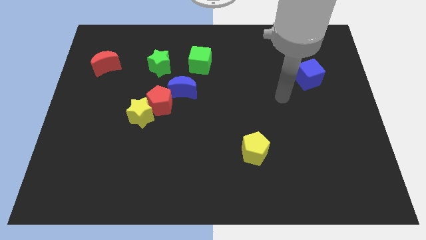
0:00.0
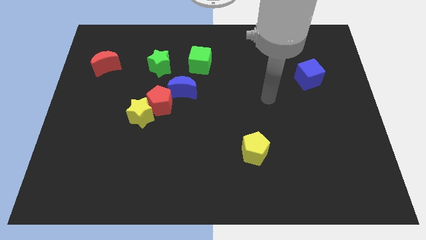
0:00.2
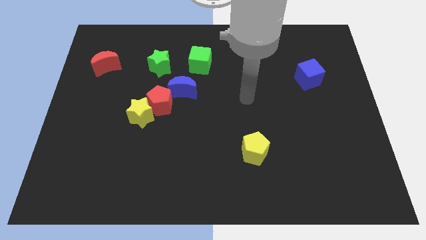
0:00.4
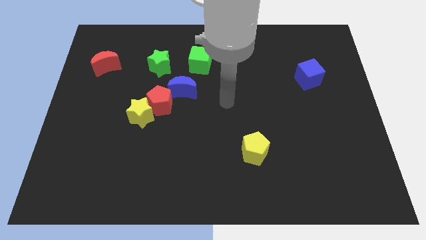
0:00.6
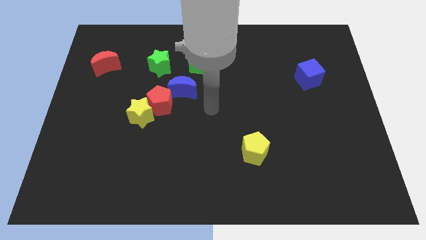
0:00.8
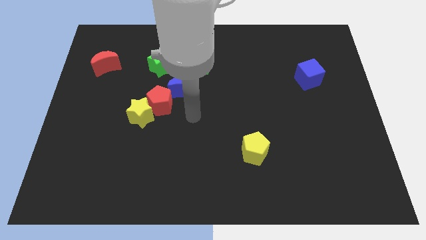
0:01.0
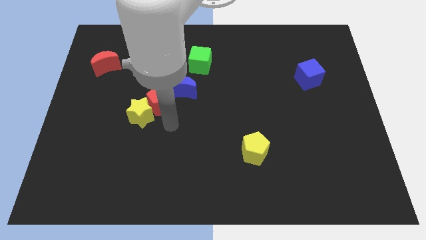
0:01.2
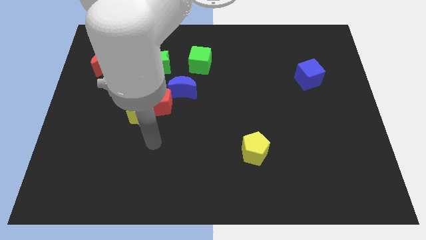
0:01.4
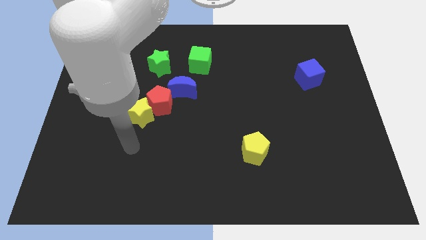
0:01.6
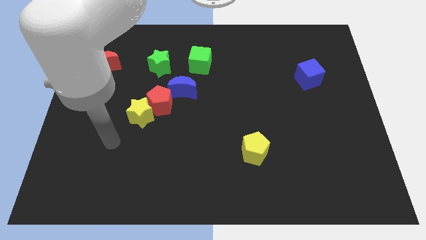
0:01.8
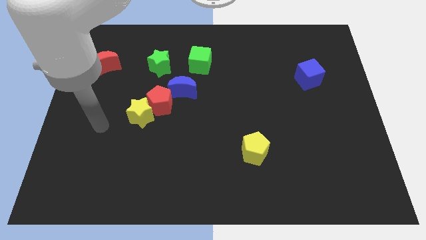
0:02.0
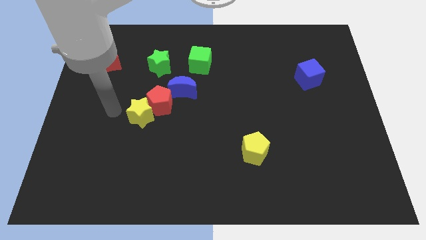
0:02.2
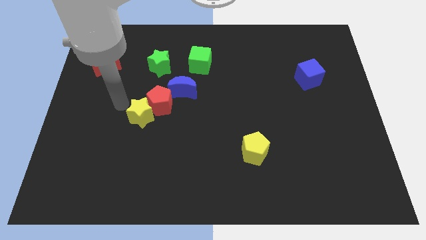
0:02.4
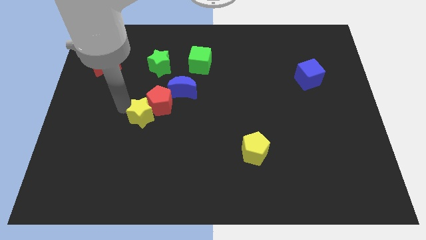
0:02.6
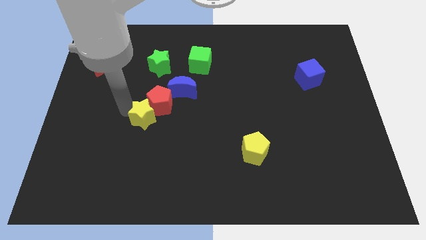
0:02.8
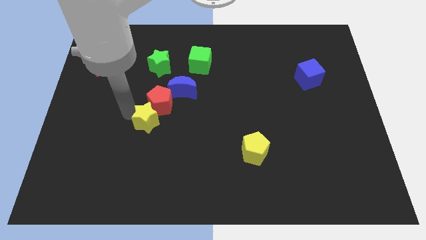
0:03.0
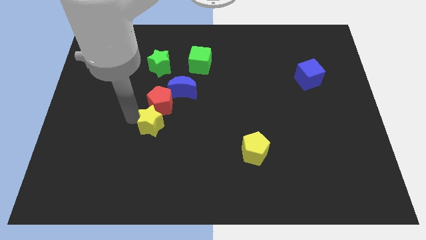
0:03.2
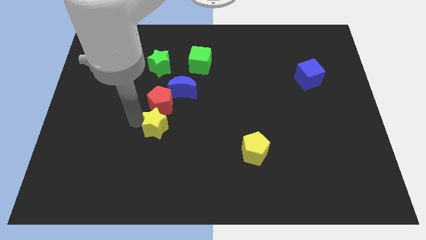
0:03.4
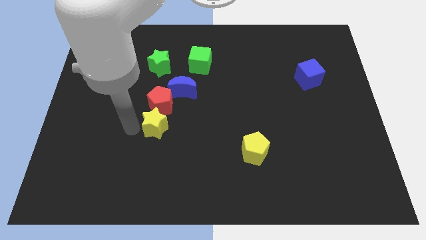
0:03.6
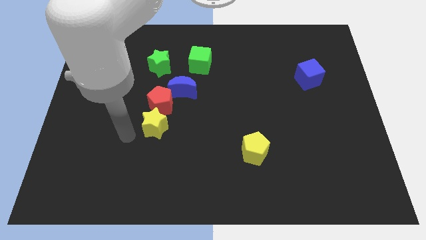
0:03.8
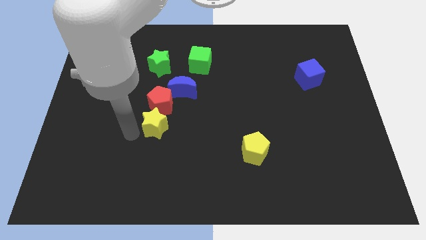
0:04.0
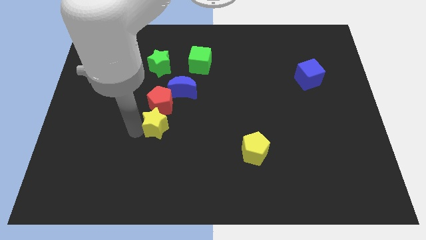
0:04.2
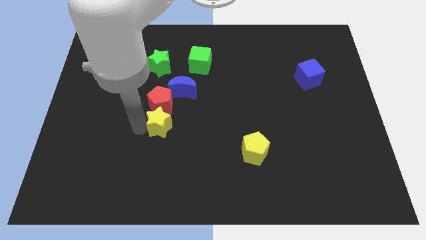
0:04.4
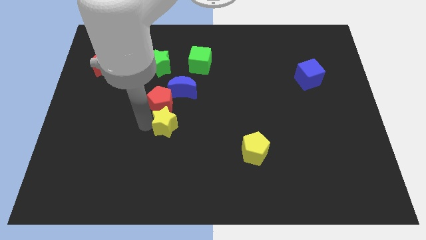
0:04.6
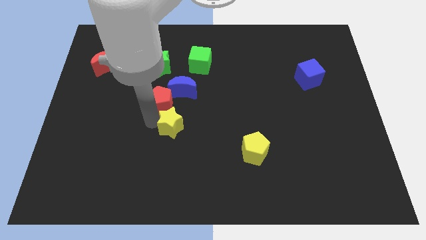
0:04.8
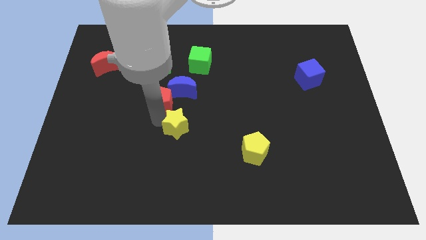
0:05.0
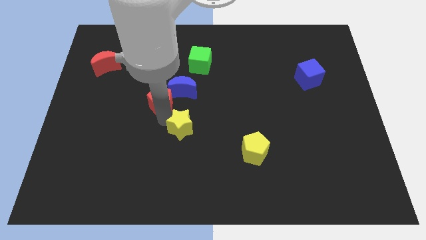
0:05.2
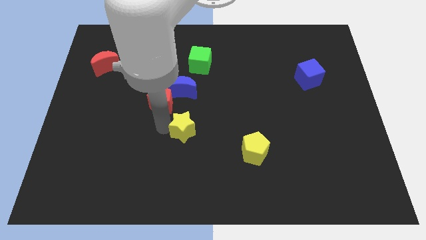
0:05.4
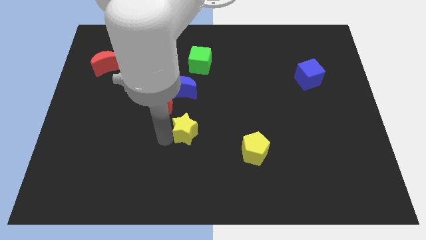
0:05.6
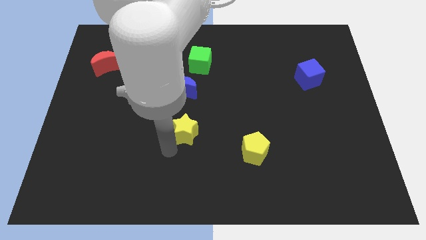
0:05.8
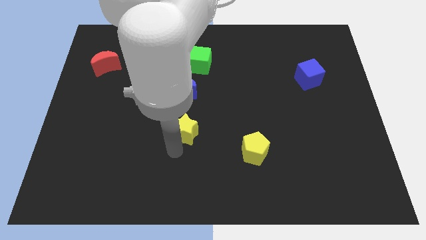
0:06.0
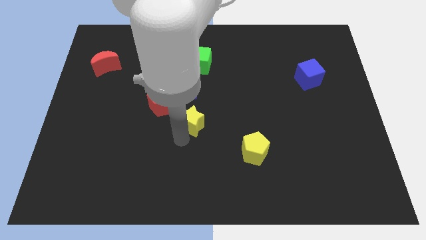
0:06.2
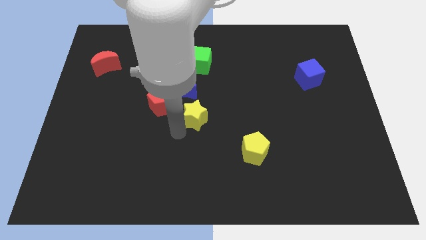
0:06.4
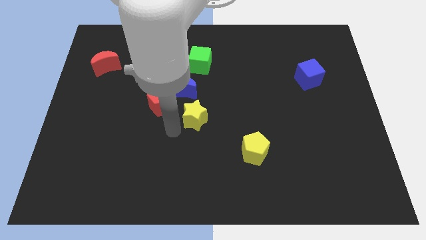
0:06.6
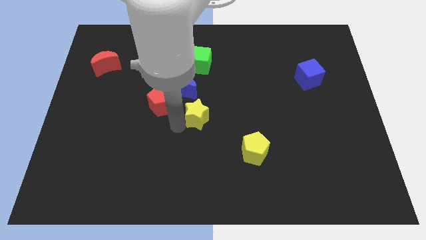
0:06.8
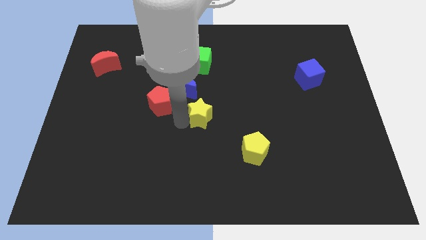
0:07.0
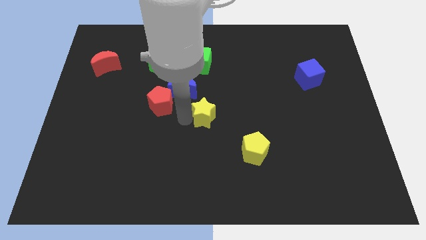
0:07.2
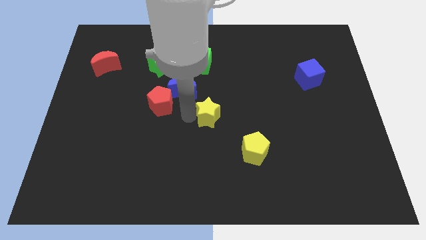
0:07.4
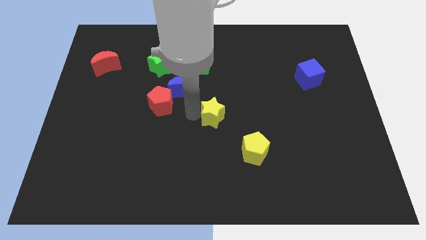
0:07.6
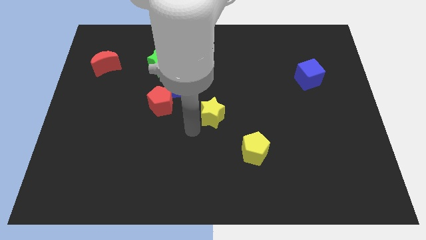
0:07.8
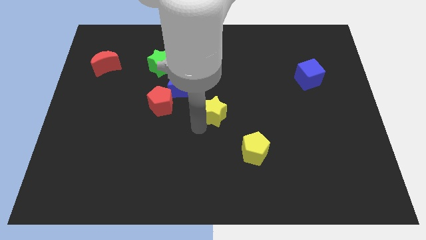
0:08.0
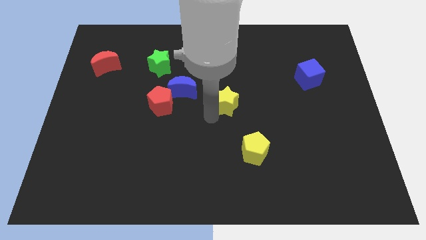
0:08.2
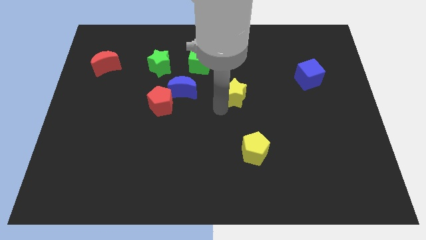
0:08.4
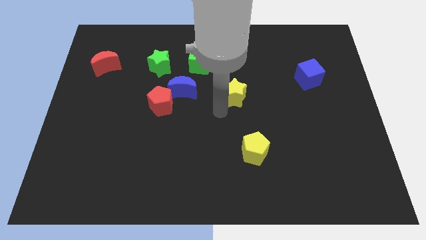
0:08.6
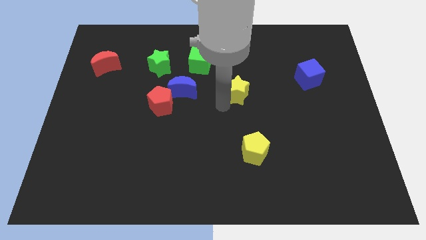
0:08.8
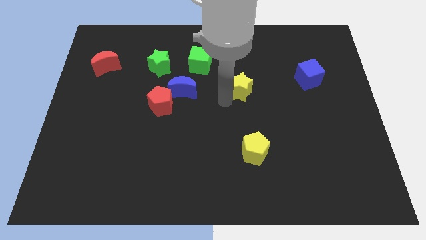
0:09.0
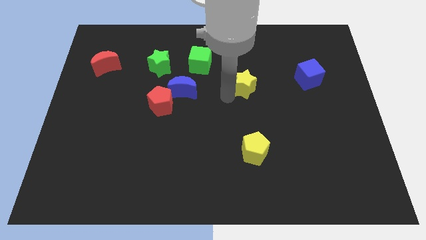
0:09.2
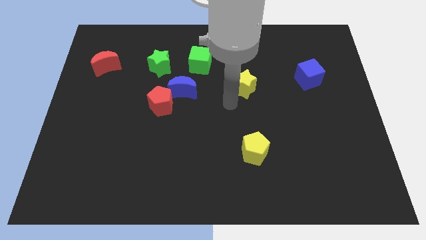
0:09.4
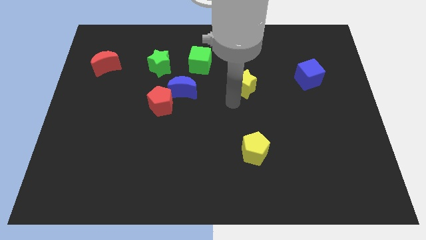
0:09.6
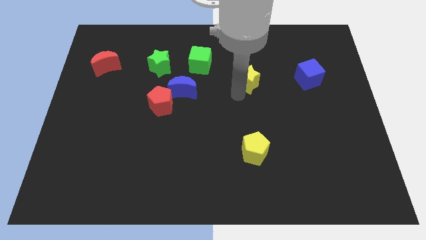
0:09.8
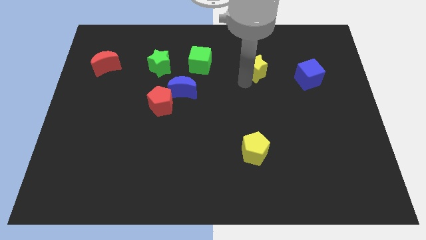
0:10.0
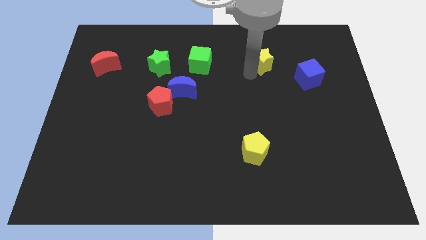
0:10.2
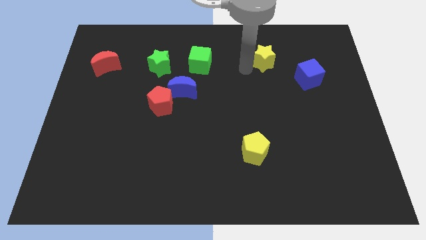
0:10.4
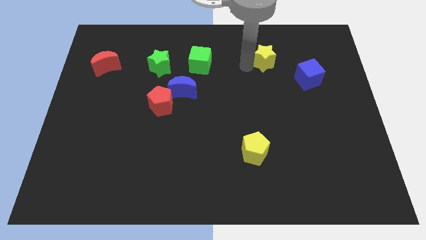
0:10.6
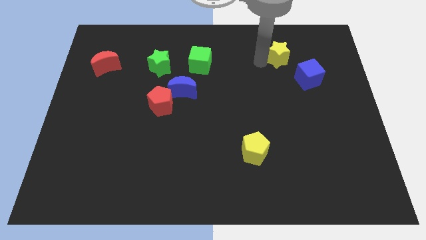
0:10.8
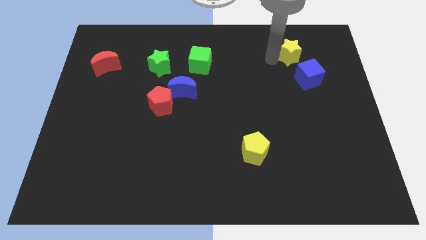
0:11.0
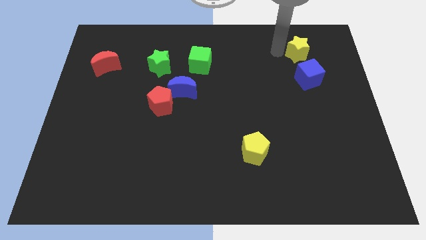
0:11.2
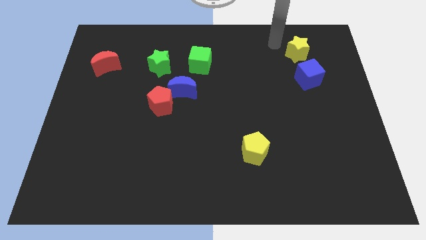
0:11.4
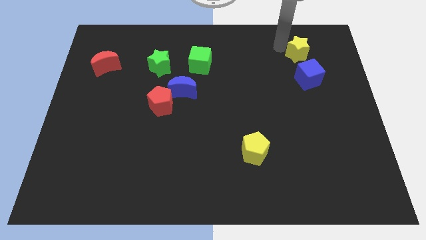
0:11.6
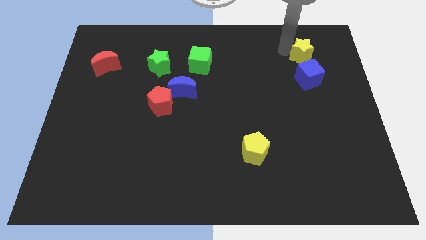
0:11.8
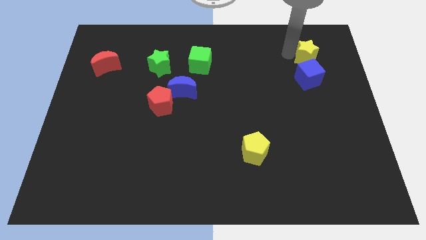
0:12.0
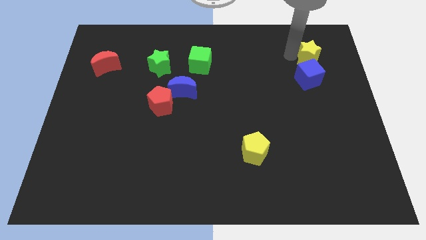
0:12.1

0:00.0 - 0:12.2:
slide the yellow star diagonally up and to the right of the blue cube

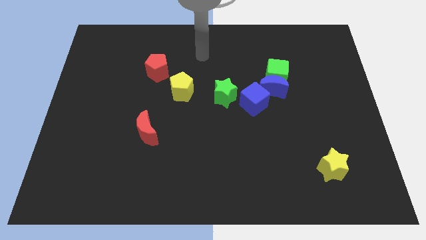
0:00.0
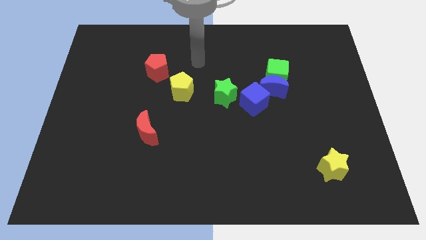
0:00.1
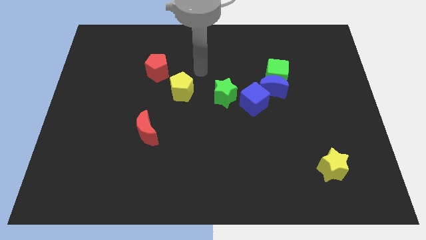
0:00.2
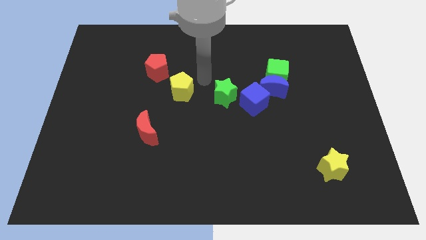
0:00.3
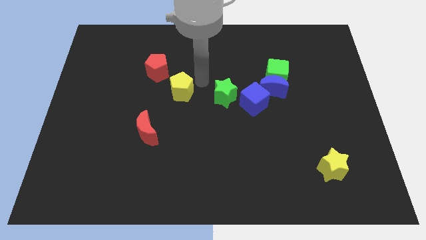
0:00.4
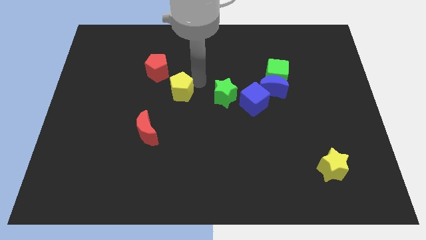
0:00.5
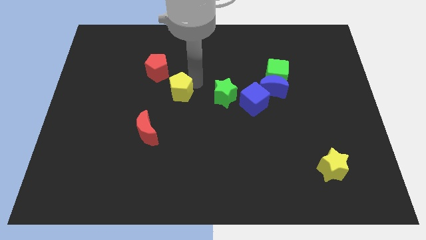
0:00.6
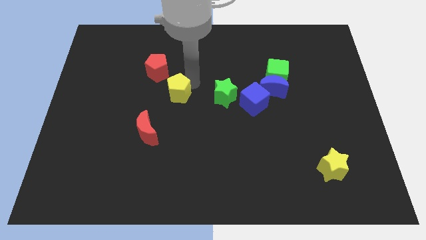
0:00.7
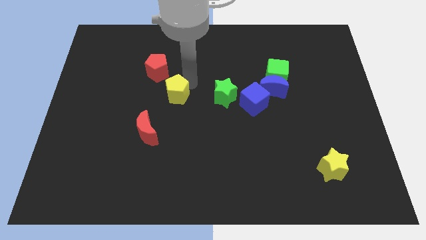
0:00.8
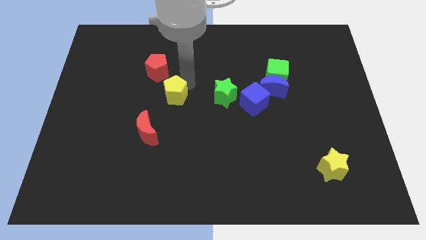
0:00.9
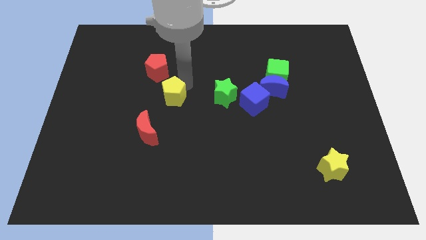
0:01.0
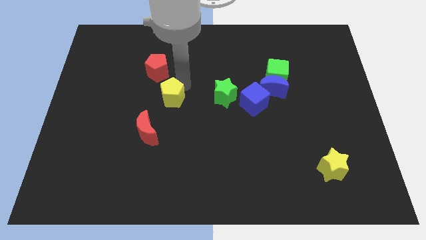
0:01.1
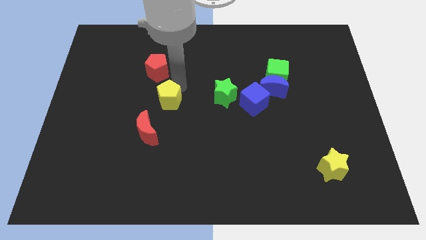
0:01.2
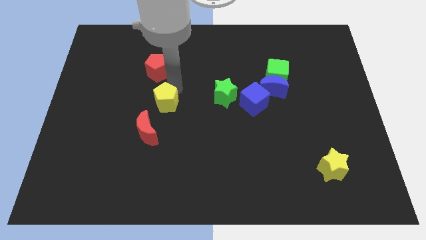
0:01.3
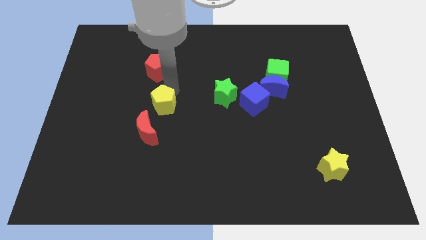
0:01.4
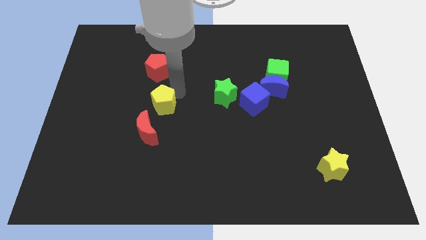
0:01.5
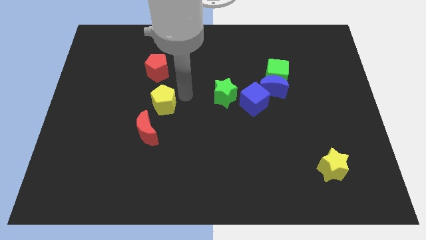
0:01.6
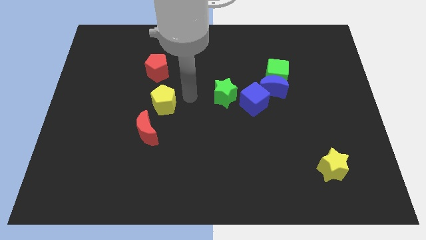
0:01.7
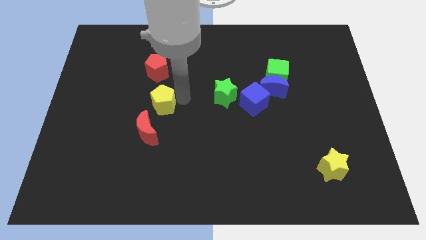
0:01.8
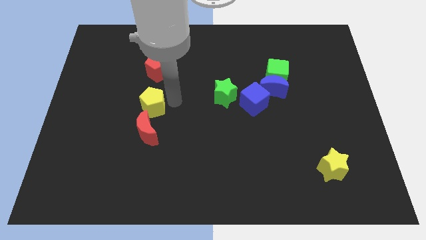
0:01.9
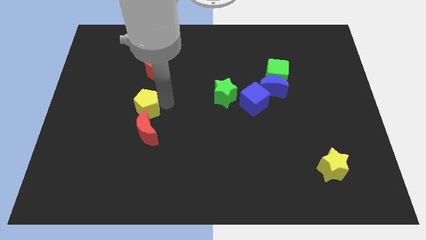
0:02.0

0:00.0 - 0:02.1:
push the yellow pentagon to the top left of the red moon
